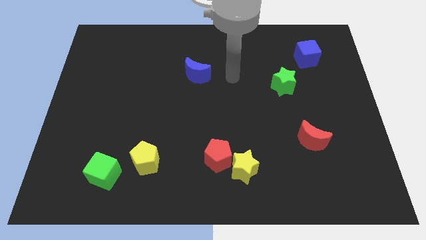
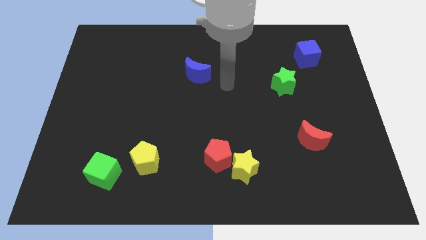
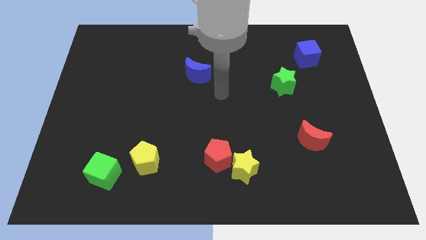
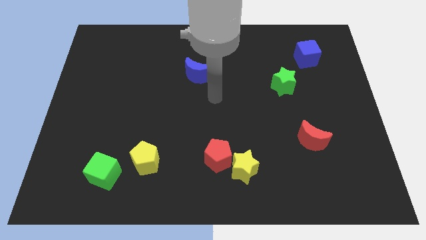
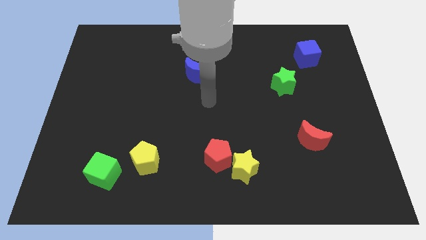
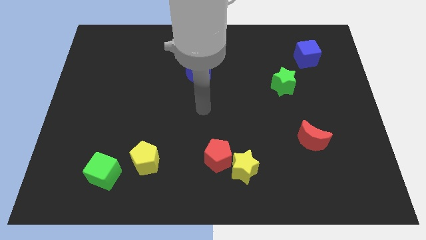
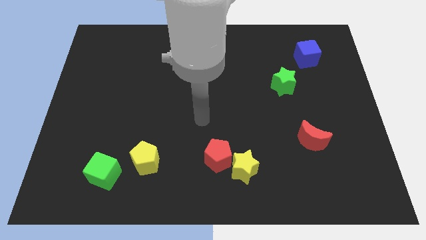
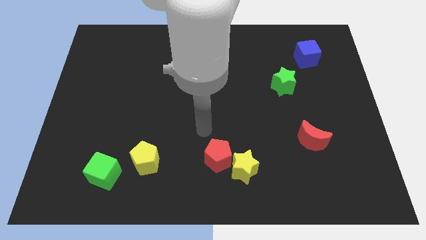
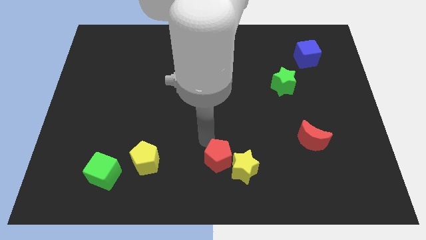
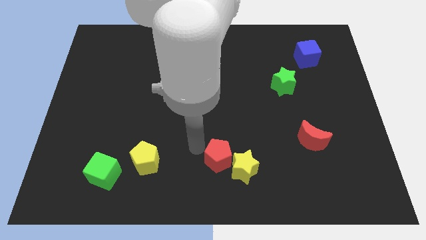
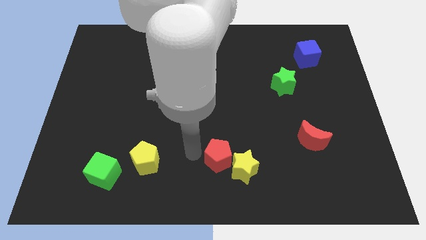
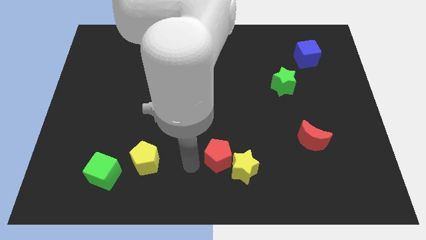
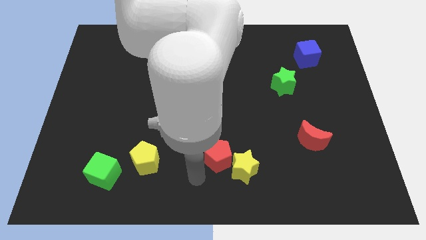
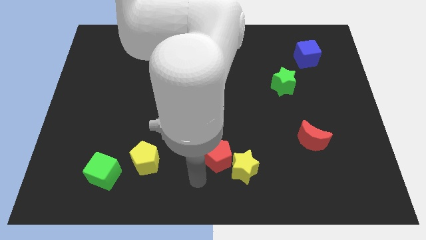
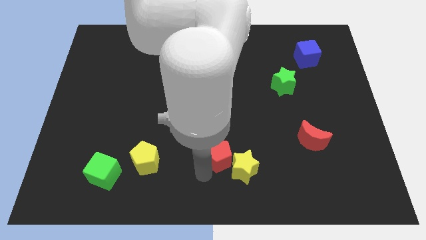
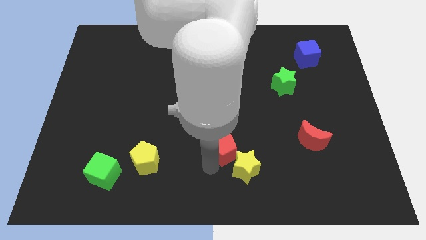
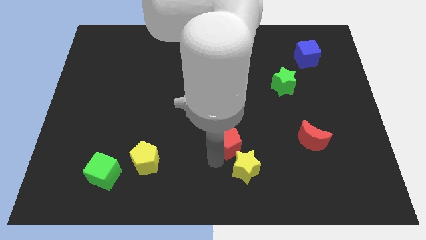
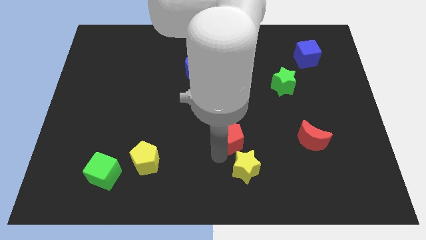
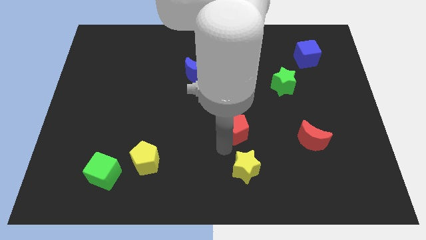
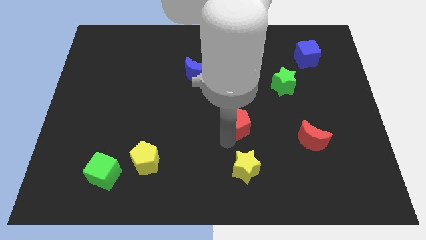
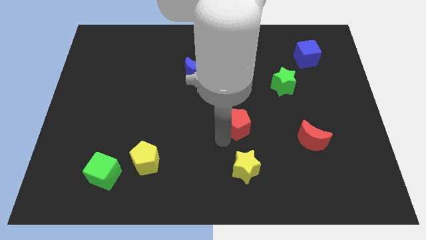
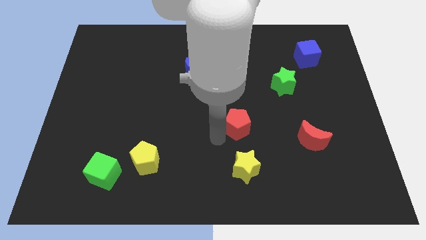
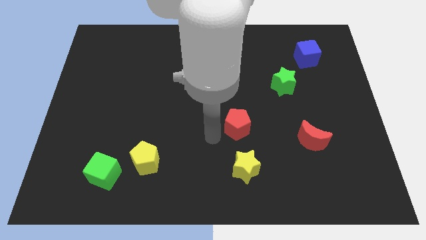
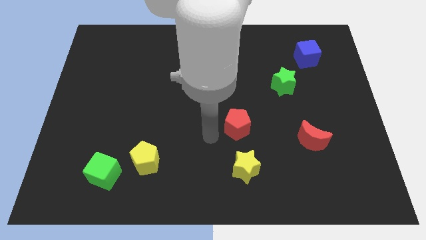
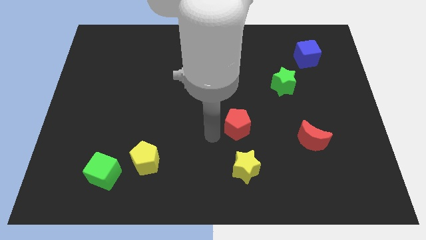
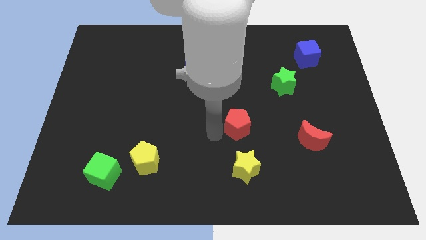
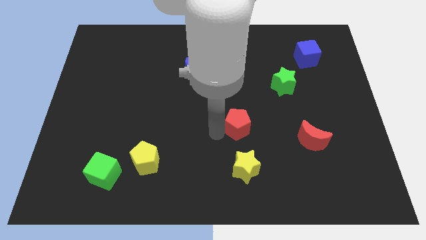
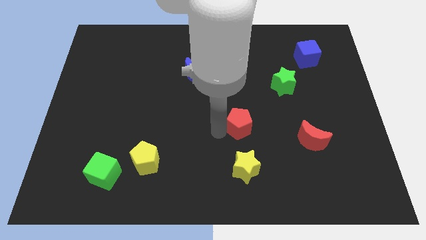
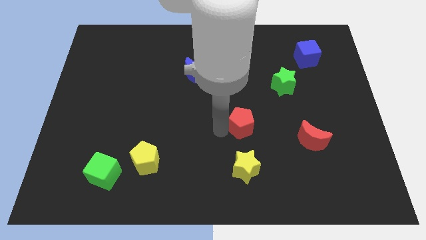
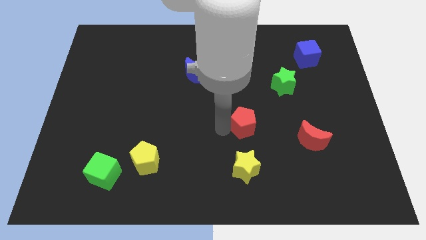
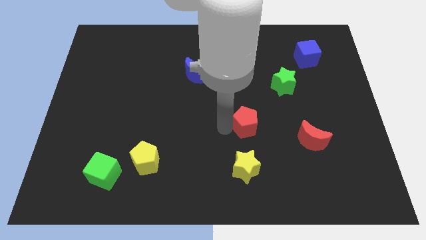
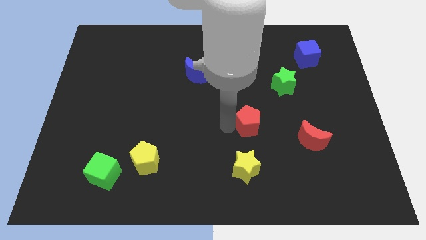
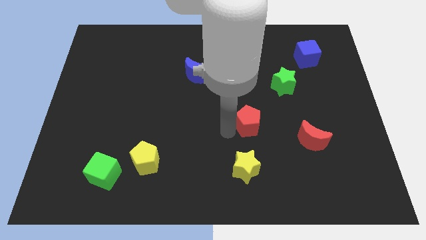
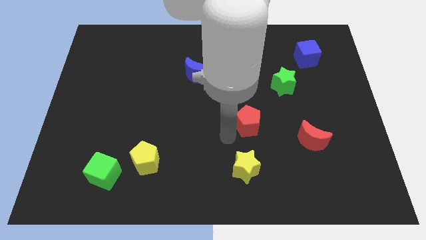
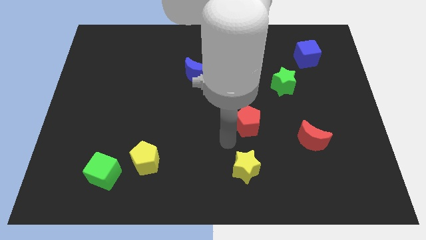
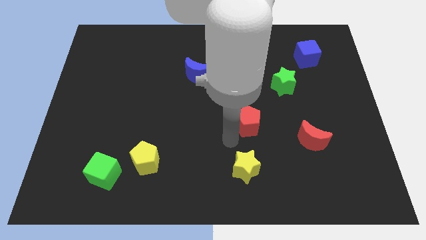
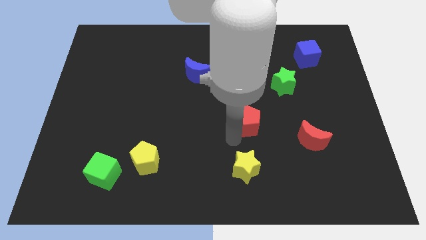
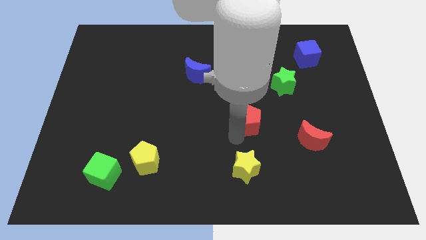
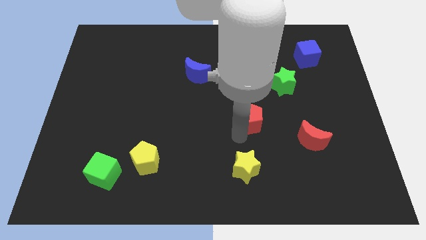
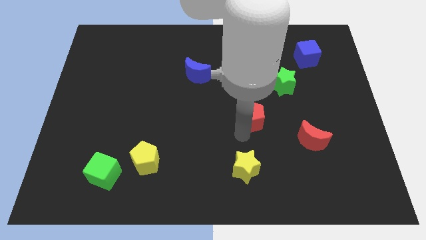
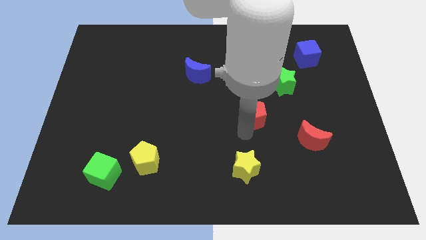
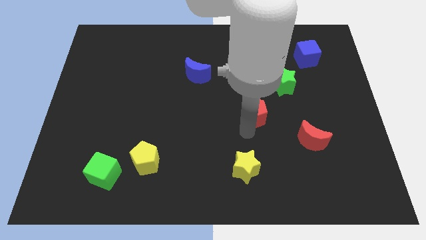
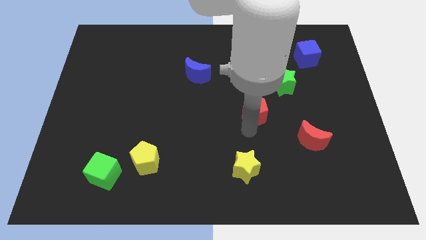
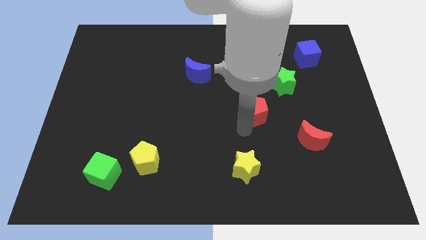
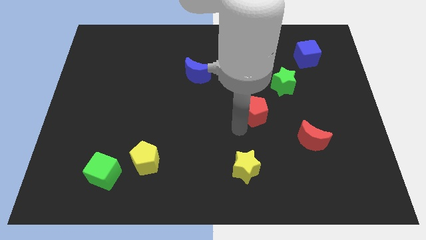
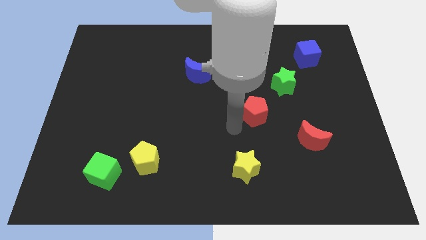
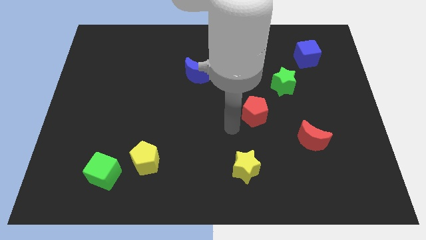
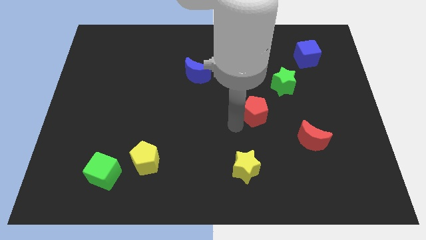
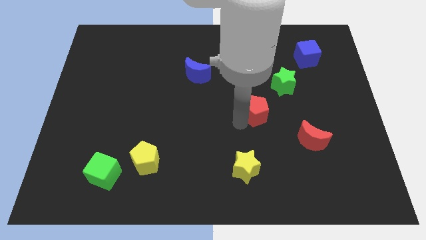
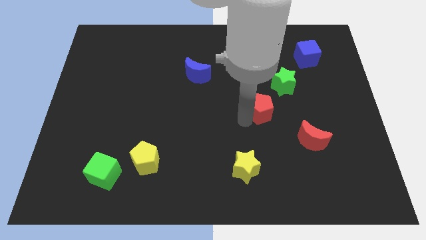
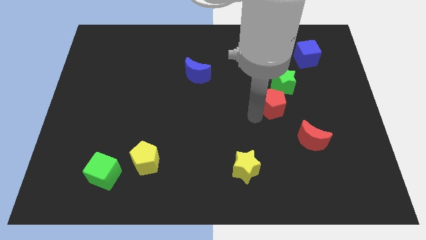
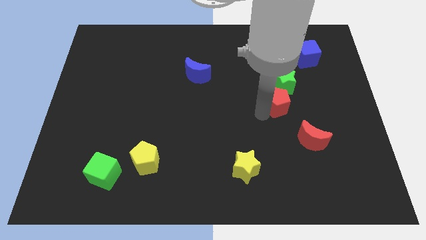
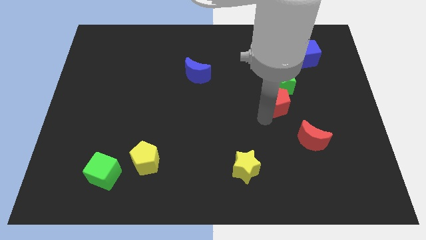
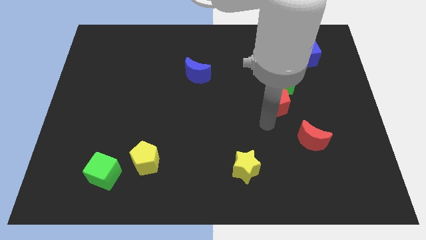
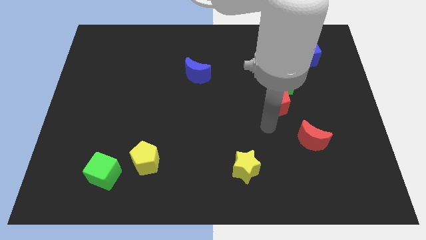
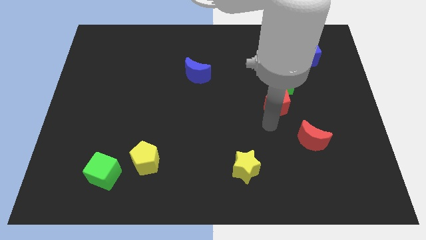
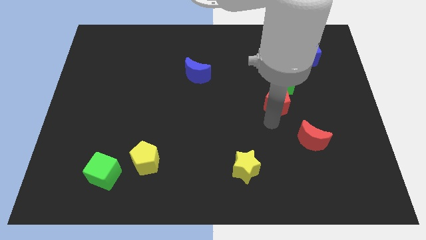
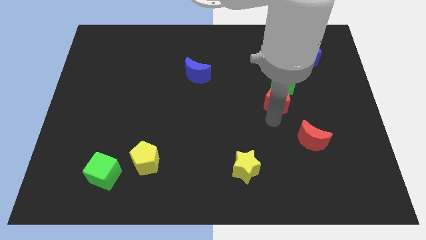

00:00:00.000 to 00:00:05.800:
put the red pentagon close to the green star

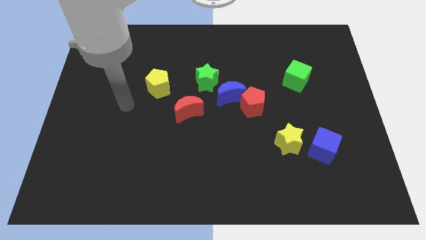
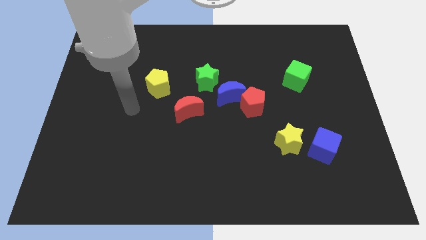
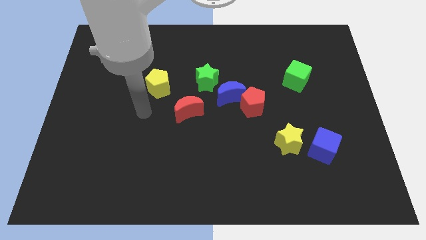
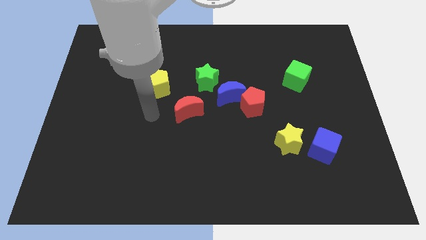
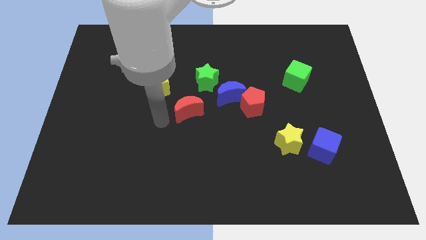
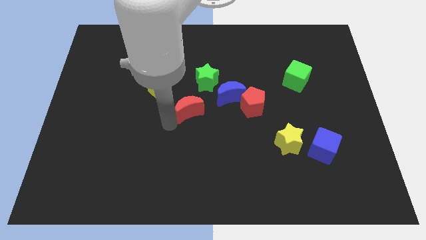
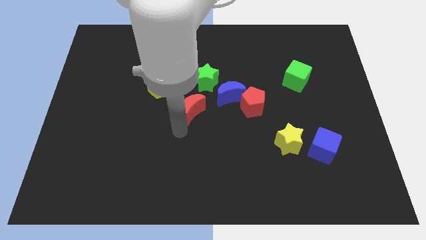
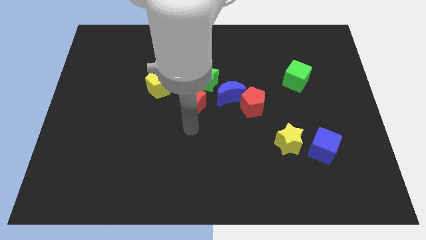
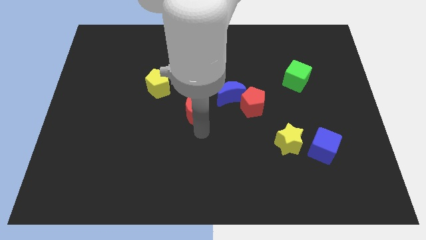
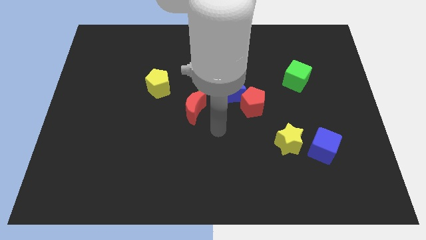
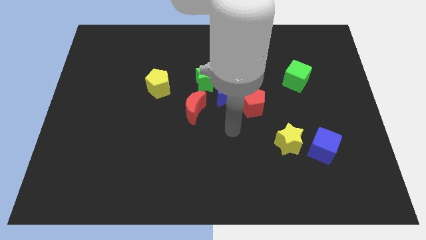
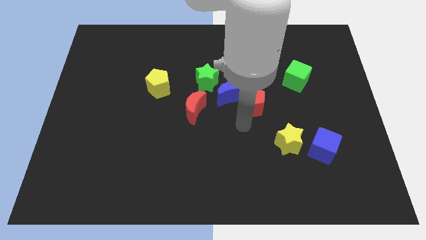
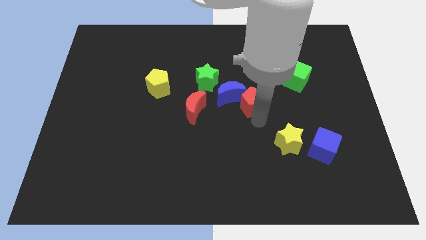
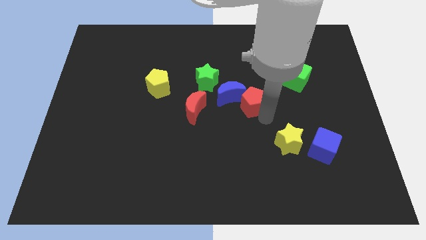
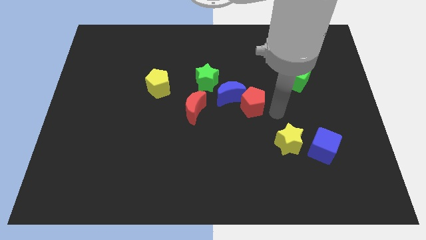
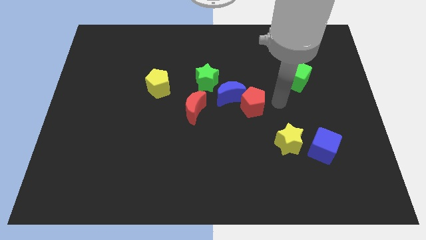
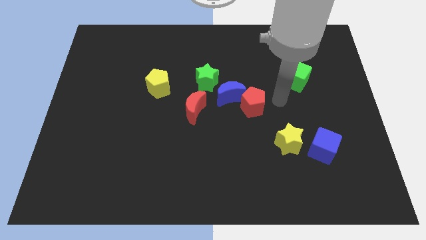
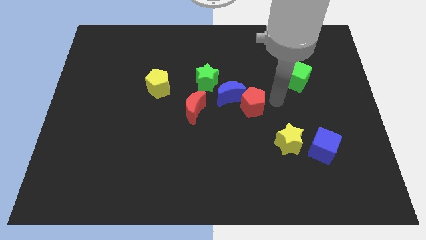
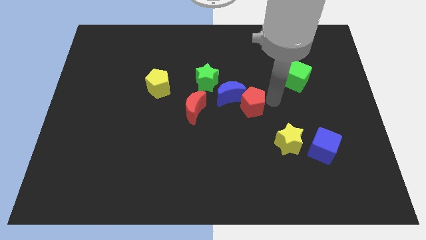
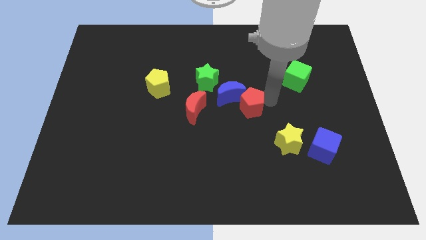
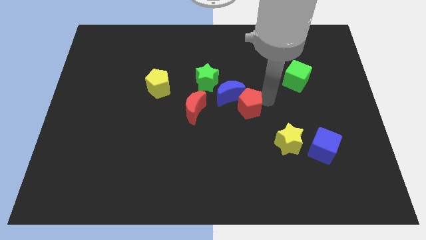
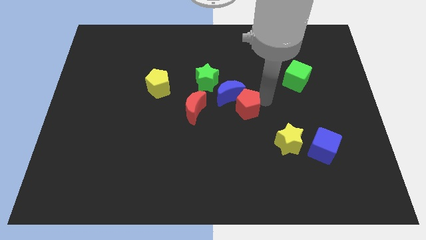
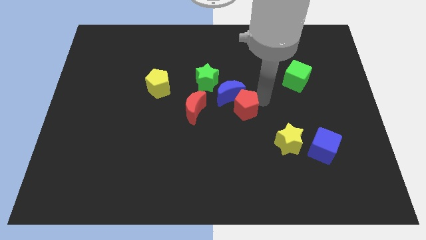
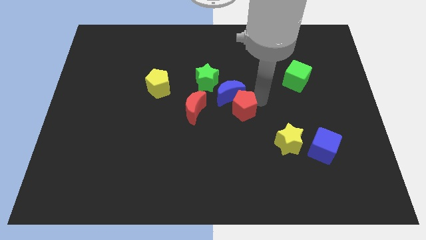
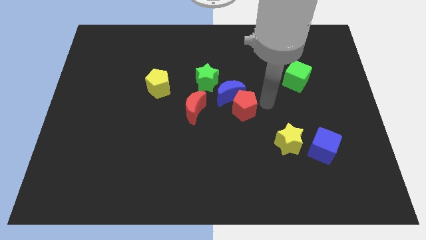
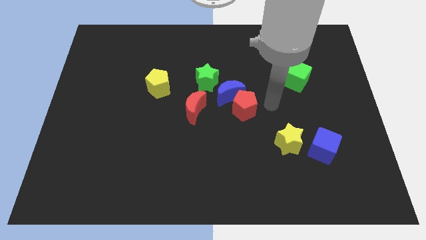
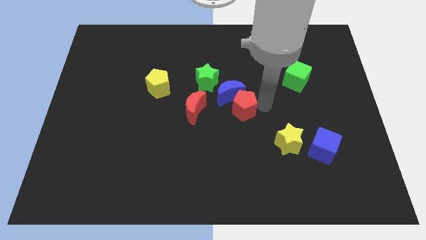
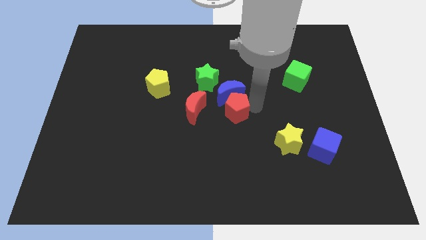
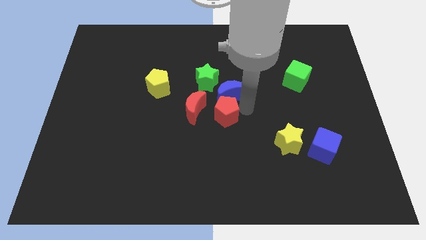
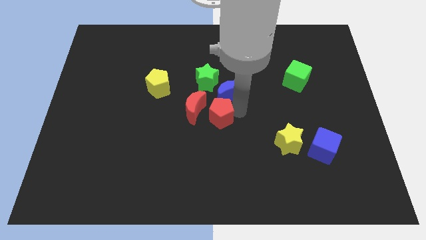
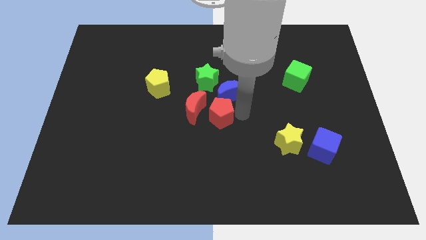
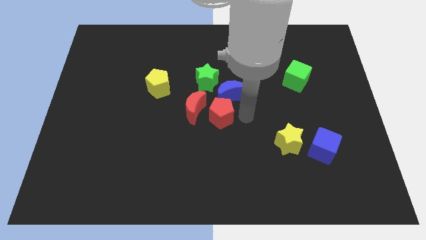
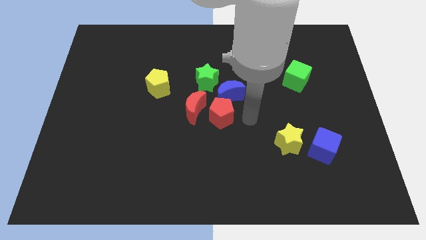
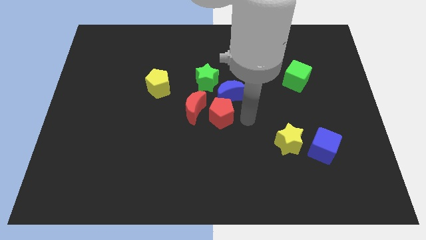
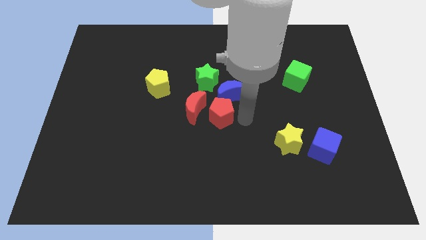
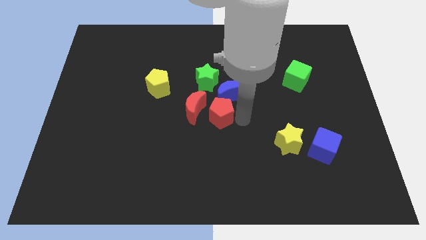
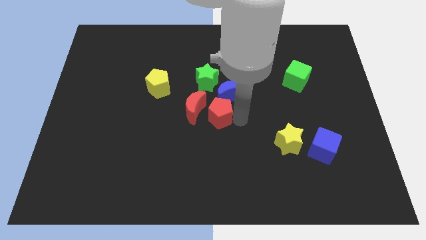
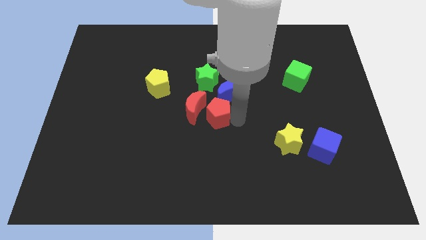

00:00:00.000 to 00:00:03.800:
slide the red pentagon close to the red moon
